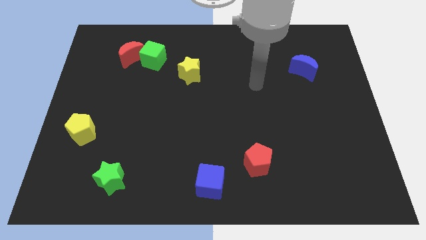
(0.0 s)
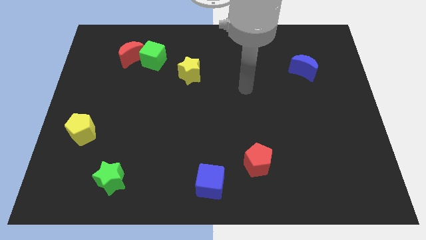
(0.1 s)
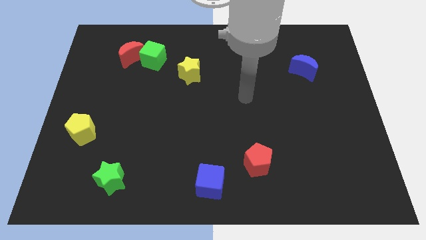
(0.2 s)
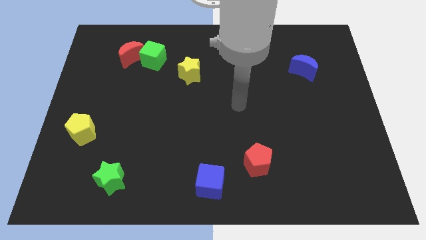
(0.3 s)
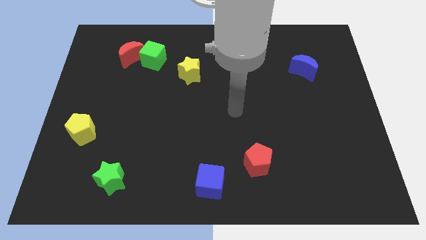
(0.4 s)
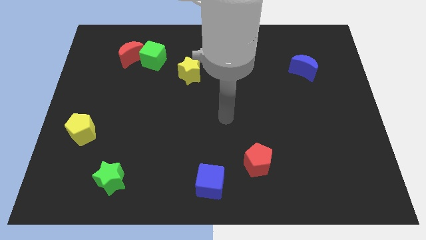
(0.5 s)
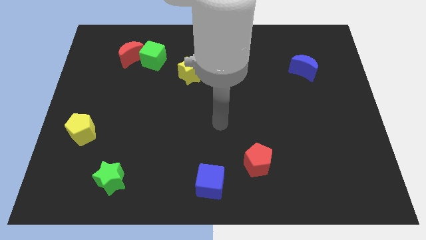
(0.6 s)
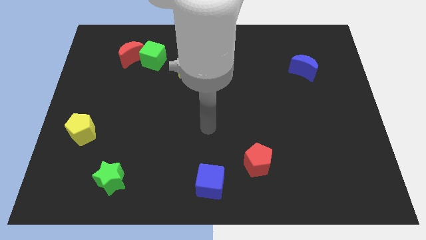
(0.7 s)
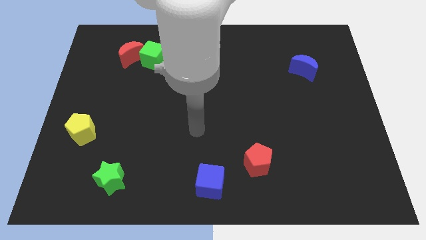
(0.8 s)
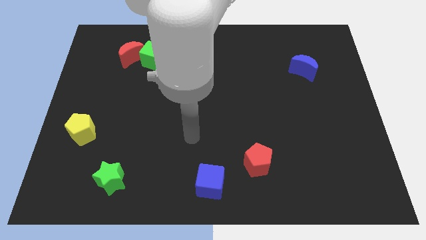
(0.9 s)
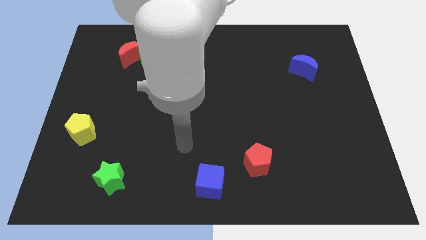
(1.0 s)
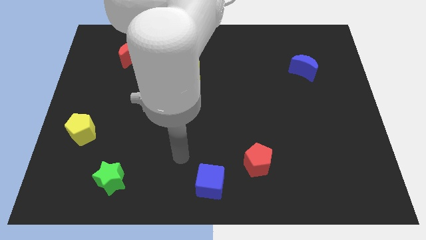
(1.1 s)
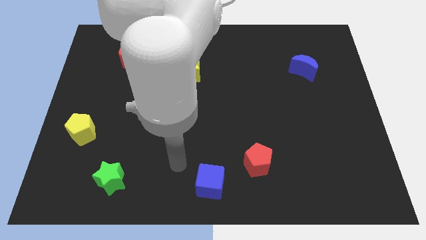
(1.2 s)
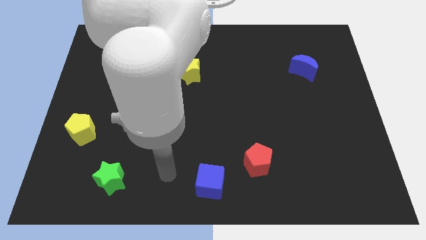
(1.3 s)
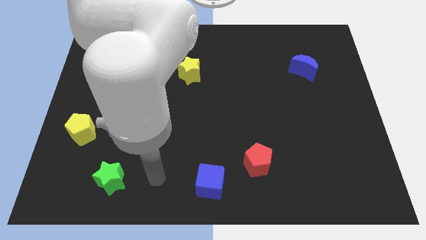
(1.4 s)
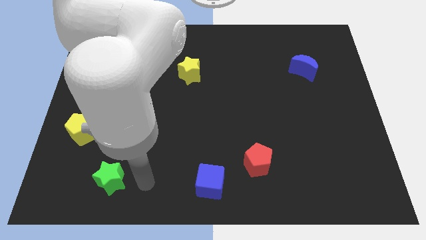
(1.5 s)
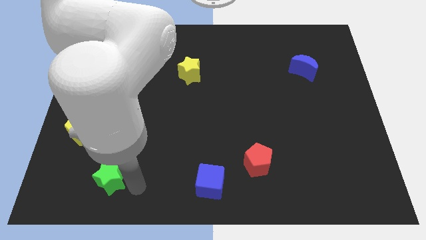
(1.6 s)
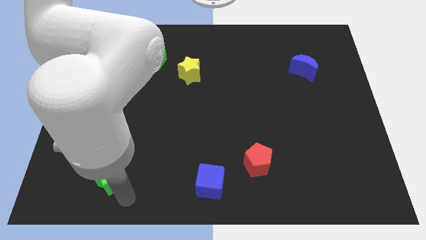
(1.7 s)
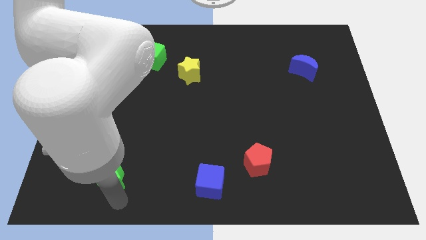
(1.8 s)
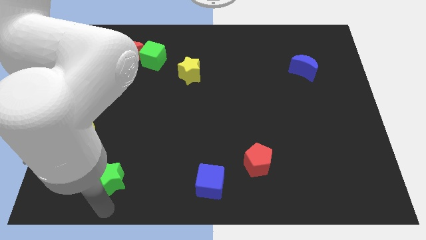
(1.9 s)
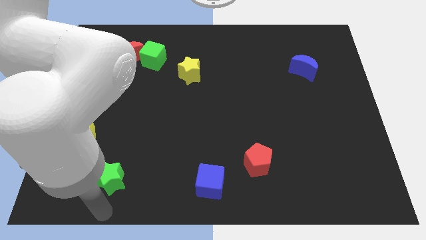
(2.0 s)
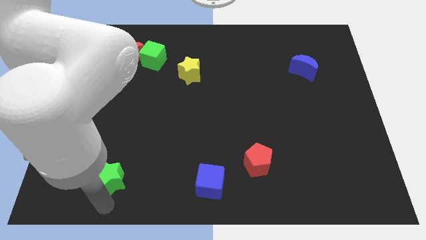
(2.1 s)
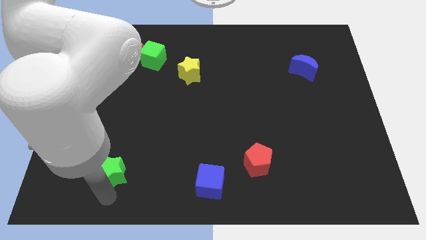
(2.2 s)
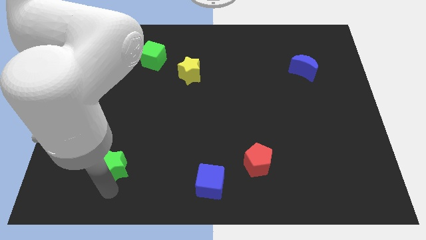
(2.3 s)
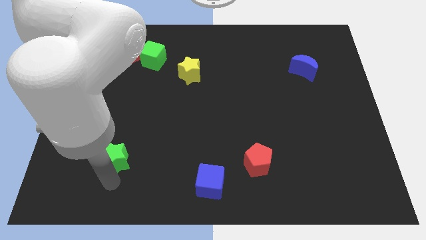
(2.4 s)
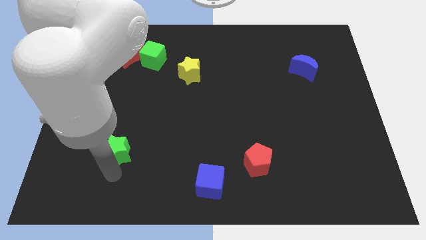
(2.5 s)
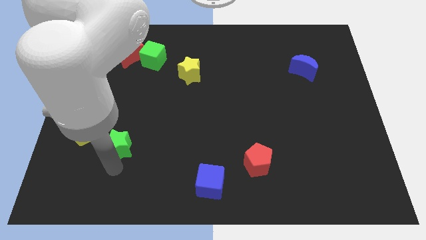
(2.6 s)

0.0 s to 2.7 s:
move the green star upwards somewhat

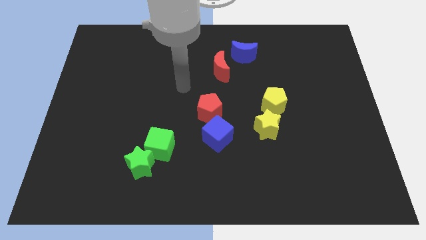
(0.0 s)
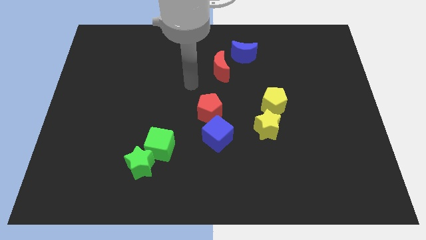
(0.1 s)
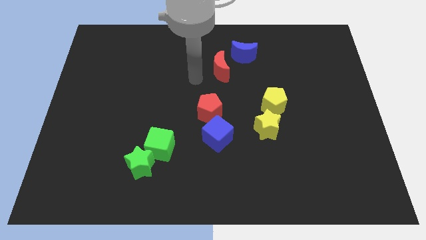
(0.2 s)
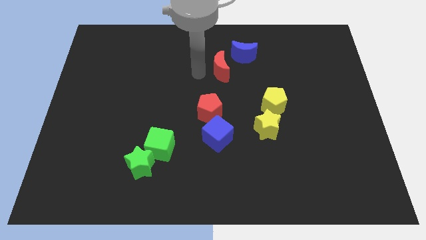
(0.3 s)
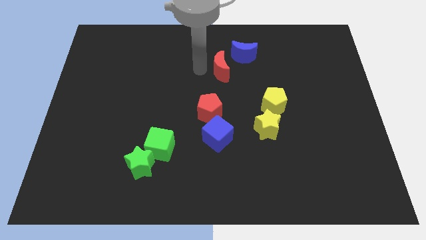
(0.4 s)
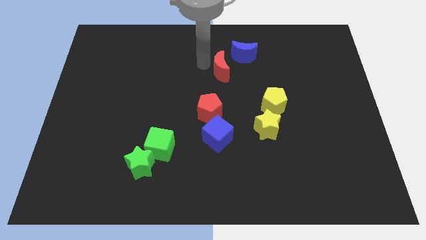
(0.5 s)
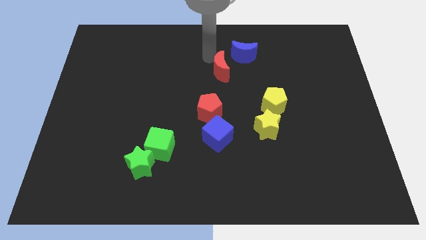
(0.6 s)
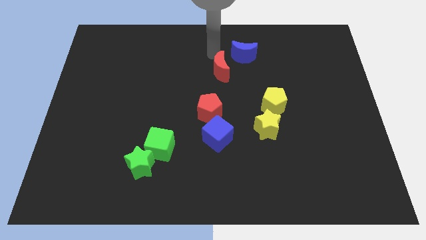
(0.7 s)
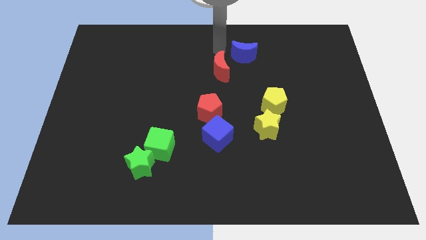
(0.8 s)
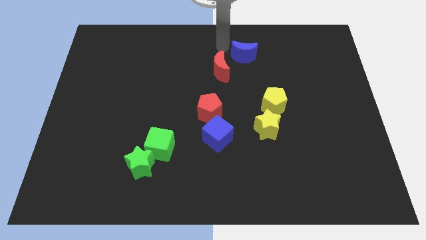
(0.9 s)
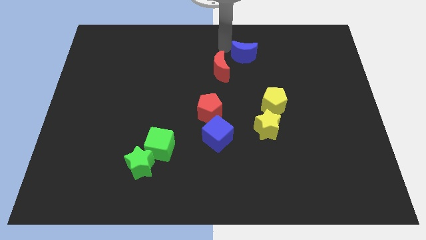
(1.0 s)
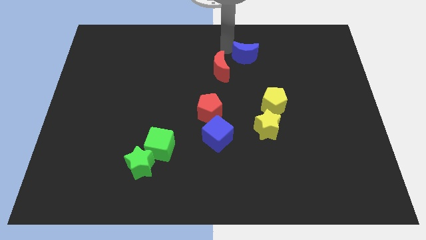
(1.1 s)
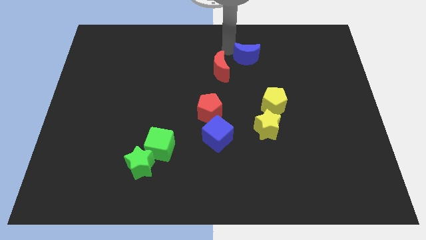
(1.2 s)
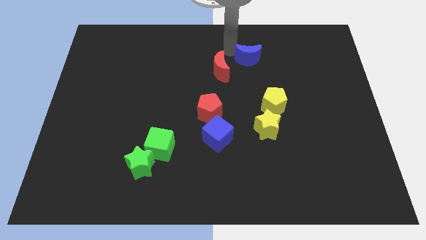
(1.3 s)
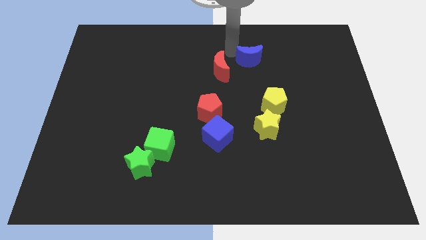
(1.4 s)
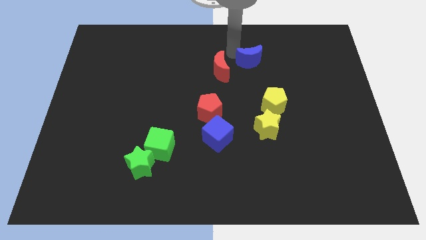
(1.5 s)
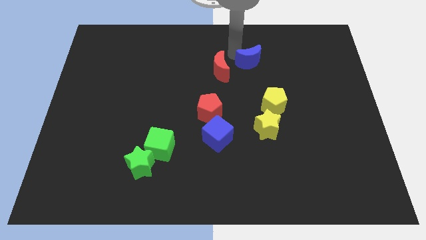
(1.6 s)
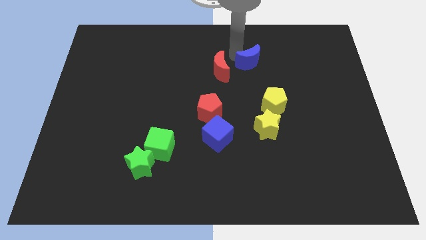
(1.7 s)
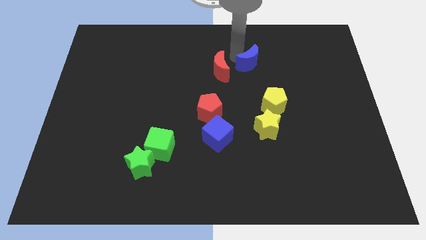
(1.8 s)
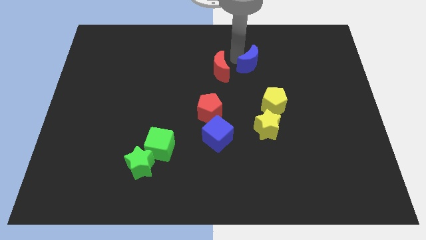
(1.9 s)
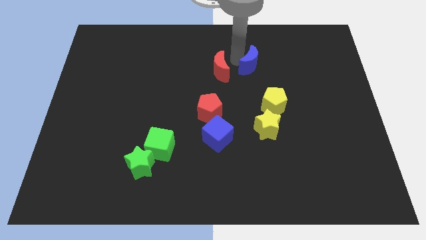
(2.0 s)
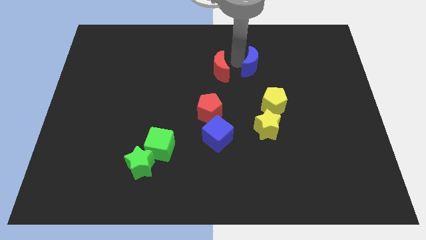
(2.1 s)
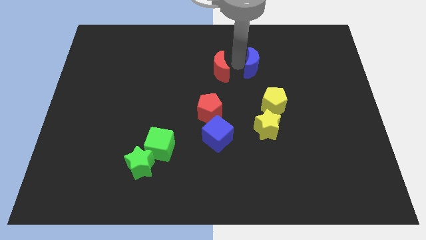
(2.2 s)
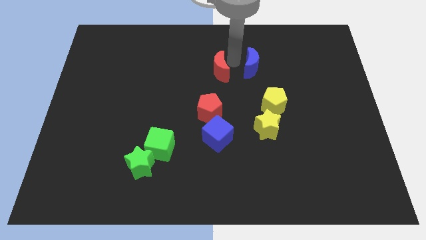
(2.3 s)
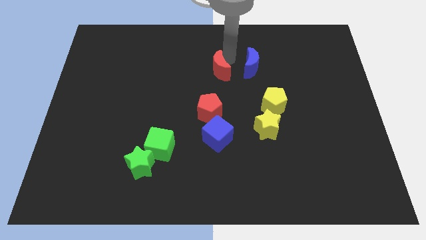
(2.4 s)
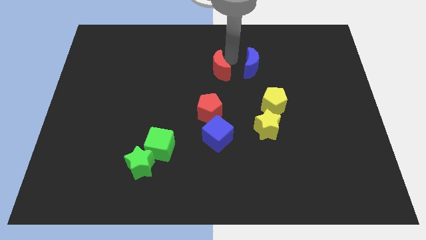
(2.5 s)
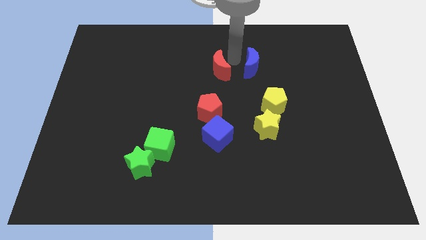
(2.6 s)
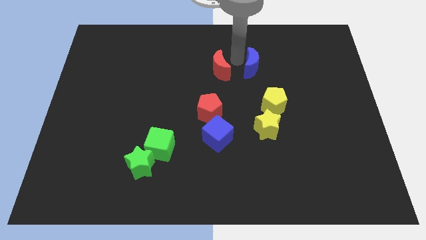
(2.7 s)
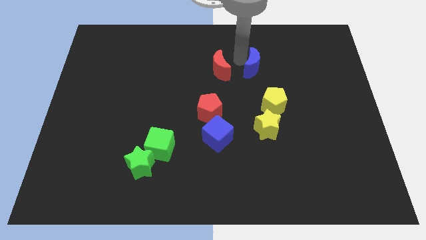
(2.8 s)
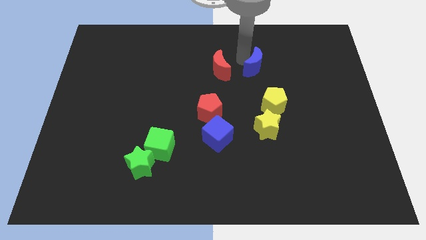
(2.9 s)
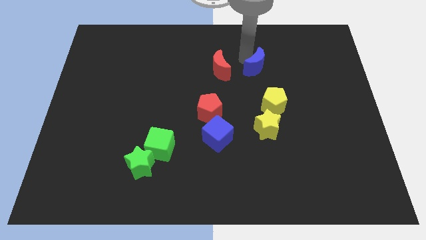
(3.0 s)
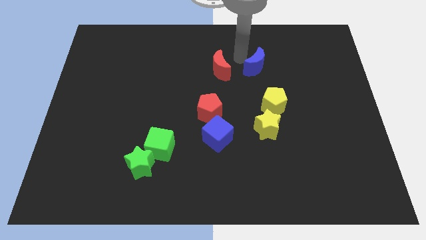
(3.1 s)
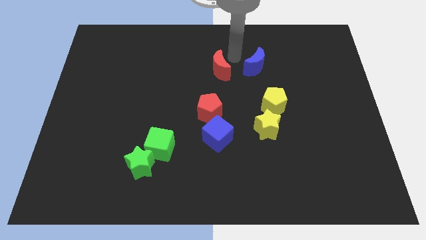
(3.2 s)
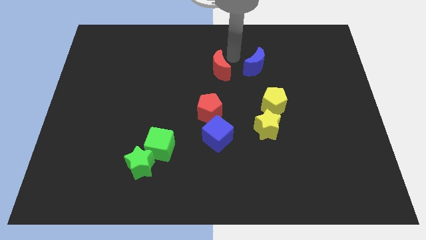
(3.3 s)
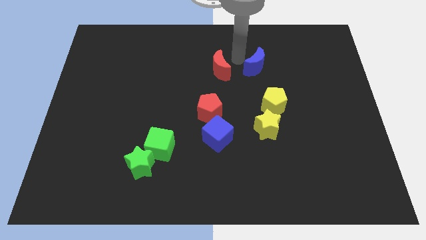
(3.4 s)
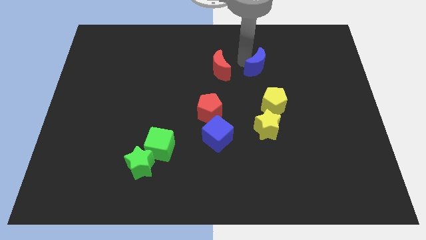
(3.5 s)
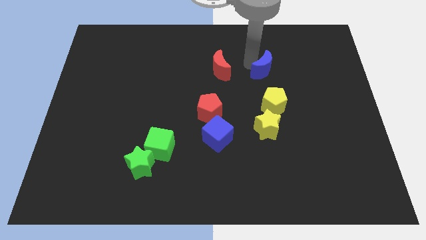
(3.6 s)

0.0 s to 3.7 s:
slide the blue moon downwards and to the right diagonally a little

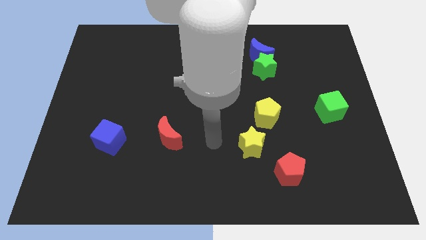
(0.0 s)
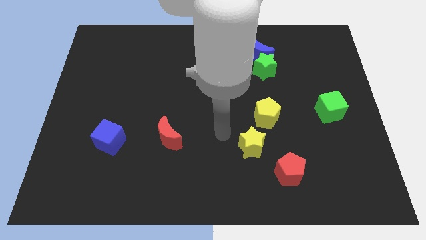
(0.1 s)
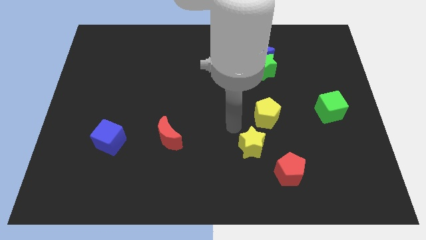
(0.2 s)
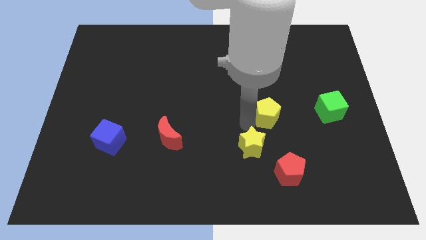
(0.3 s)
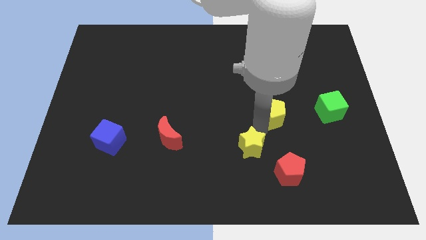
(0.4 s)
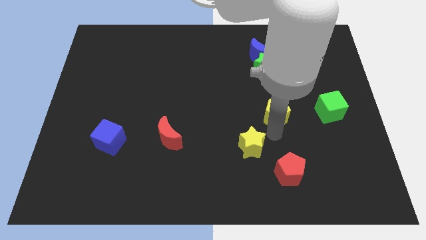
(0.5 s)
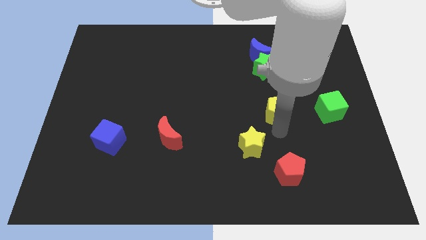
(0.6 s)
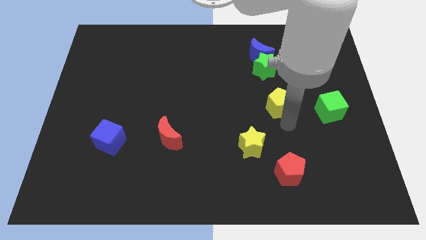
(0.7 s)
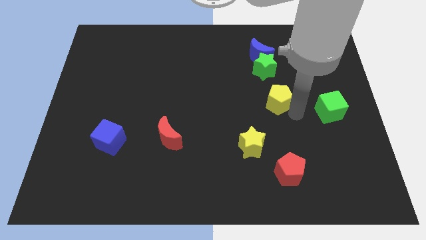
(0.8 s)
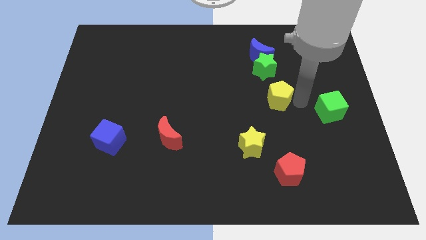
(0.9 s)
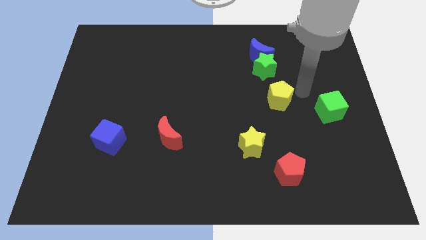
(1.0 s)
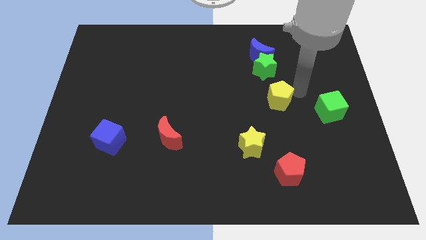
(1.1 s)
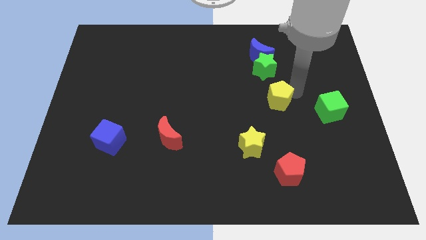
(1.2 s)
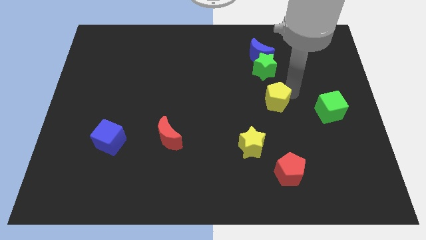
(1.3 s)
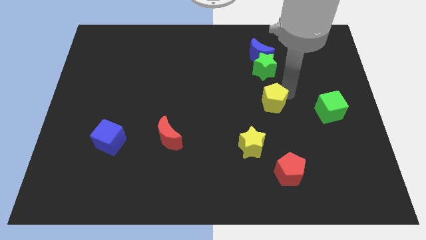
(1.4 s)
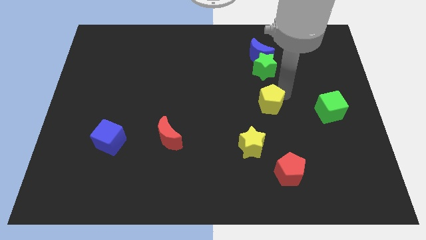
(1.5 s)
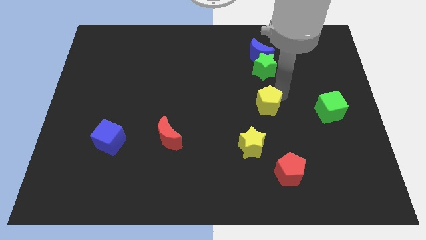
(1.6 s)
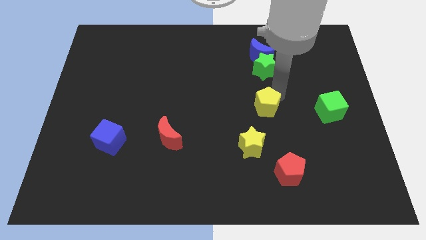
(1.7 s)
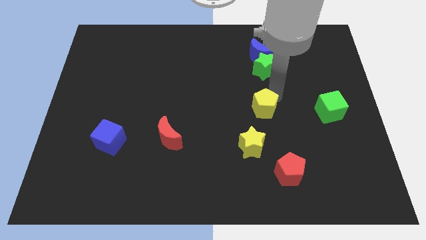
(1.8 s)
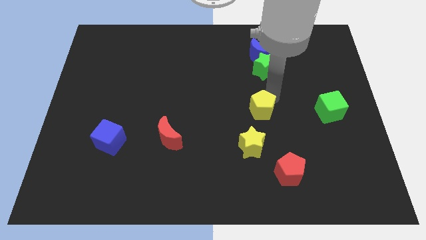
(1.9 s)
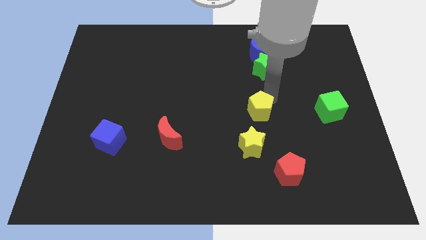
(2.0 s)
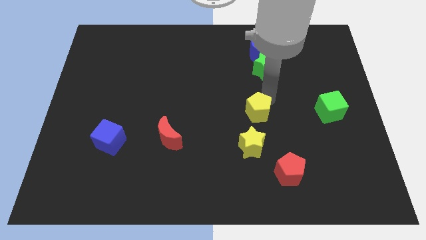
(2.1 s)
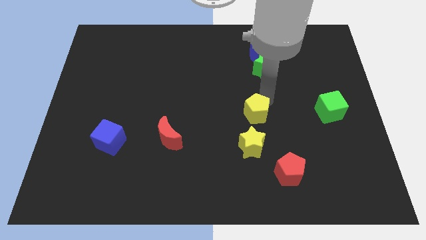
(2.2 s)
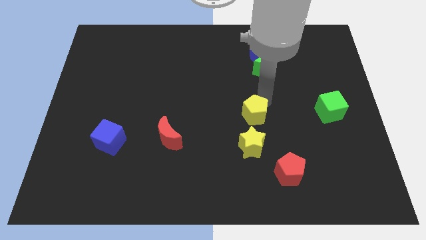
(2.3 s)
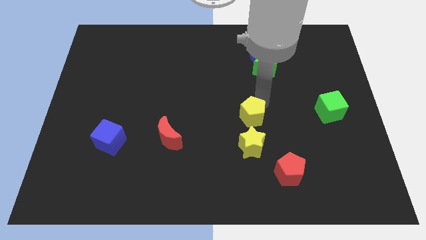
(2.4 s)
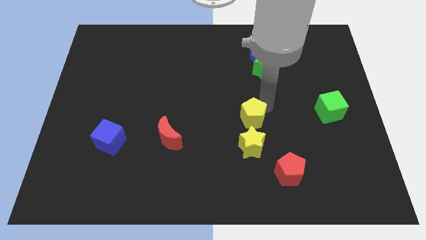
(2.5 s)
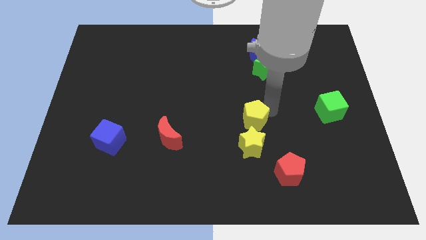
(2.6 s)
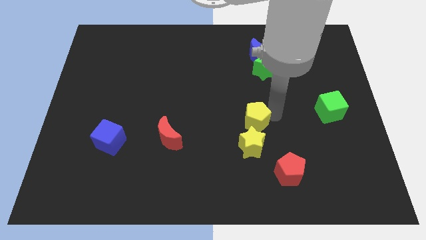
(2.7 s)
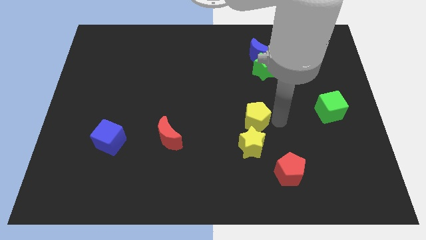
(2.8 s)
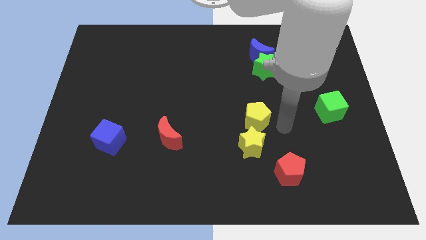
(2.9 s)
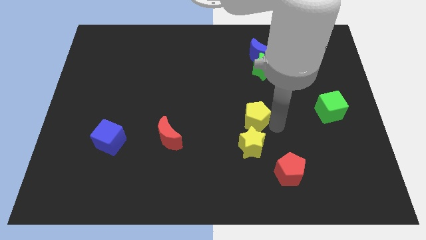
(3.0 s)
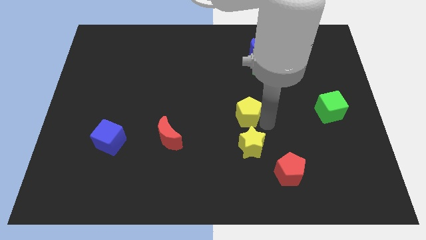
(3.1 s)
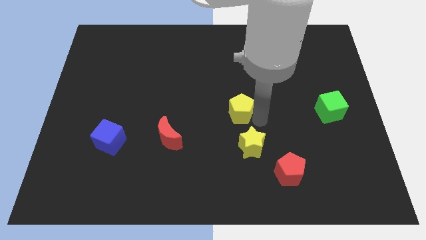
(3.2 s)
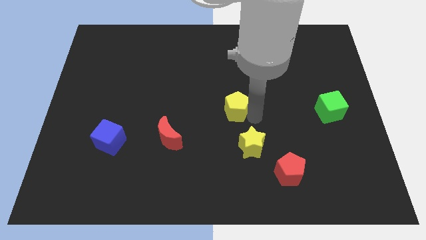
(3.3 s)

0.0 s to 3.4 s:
slightly move the yellow pentagon left
